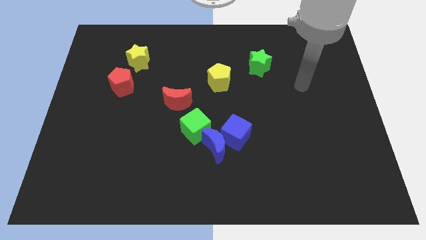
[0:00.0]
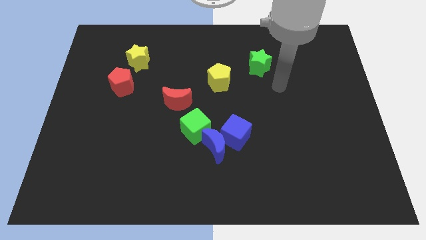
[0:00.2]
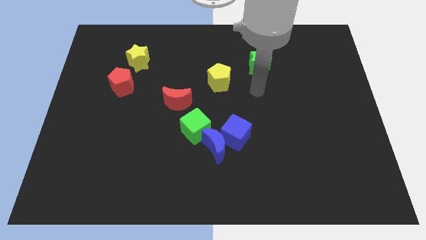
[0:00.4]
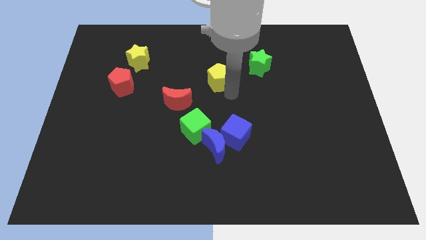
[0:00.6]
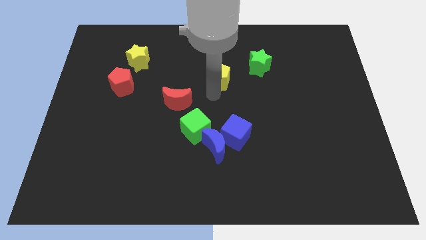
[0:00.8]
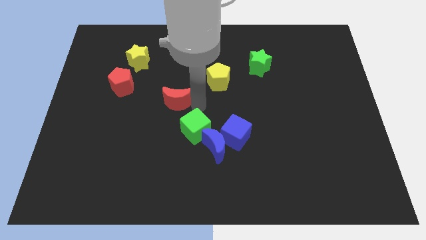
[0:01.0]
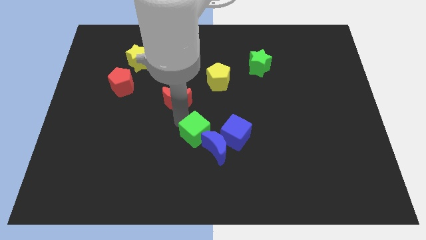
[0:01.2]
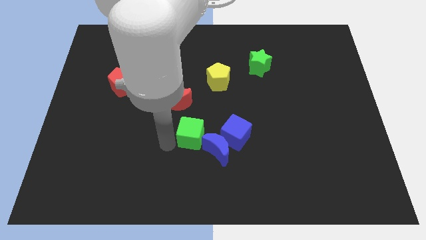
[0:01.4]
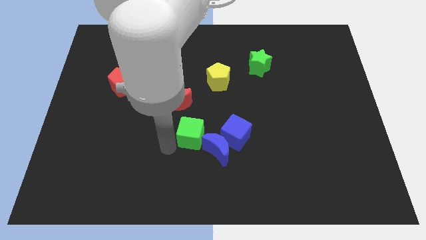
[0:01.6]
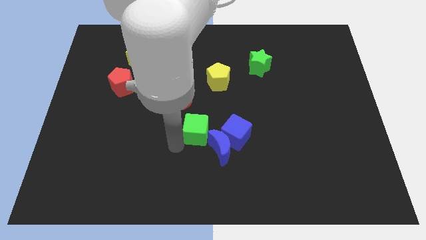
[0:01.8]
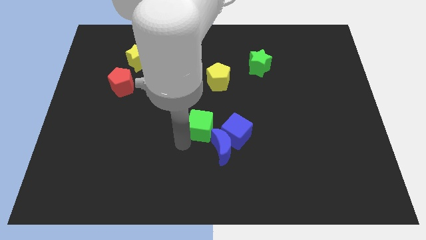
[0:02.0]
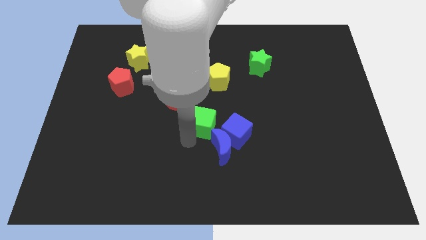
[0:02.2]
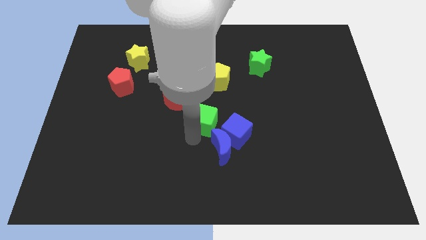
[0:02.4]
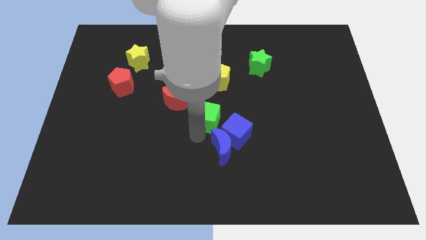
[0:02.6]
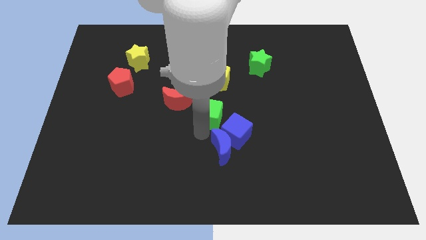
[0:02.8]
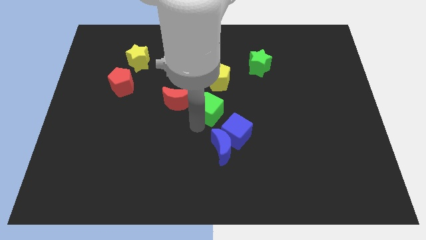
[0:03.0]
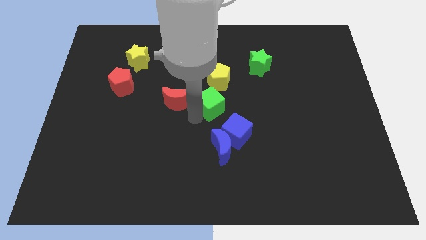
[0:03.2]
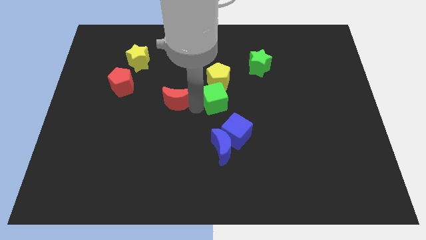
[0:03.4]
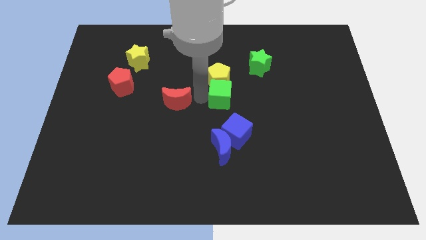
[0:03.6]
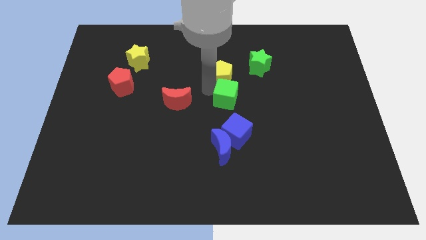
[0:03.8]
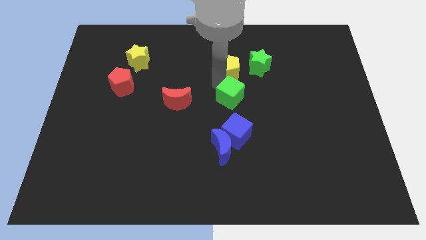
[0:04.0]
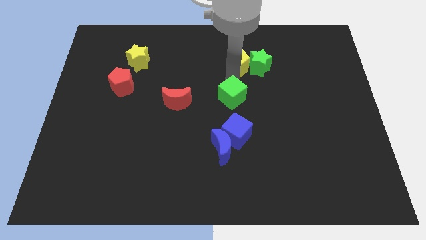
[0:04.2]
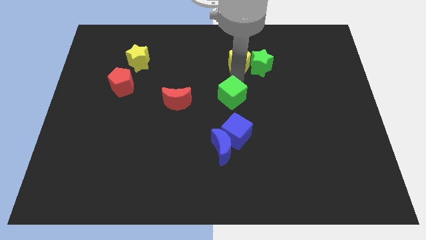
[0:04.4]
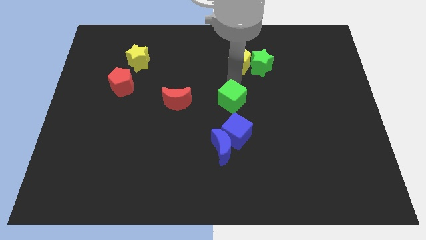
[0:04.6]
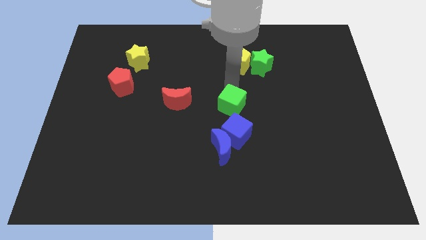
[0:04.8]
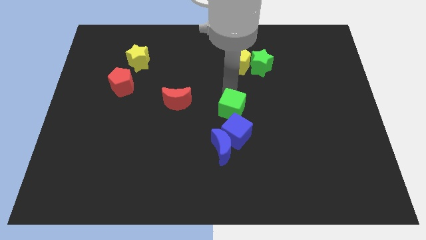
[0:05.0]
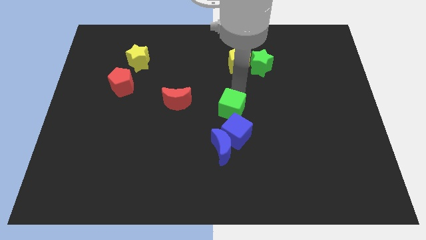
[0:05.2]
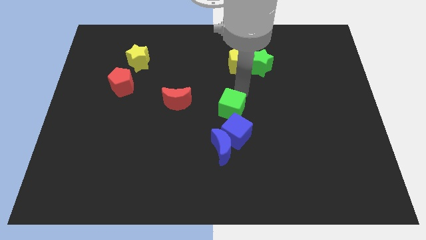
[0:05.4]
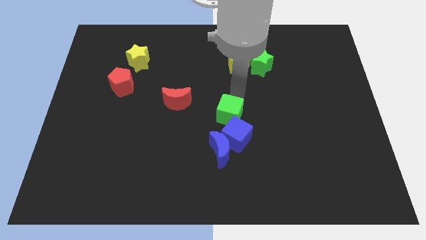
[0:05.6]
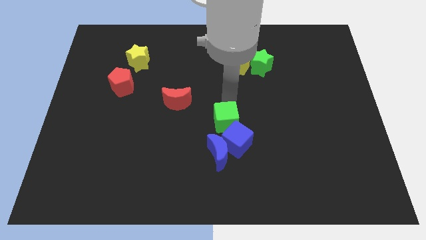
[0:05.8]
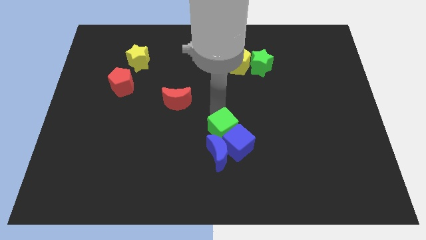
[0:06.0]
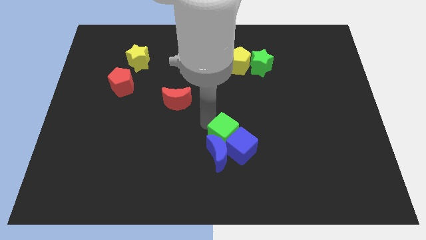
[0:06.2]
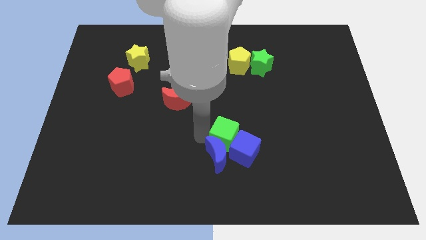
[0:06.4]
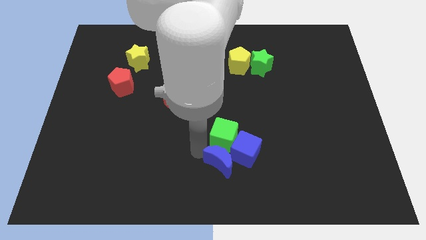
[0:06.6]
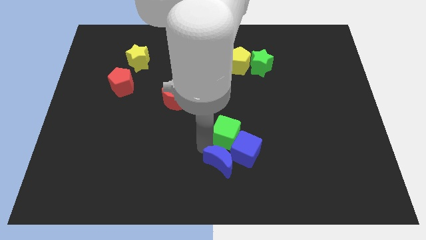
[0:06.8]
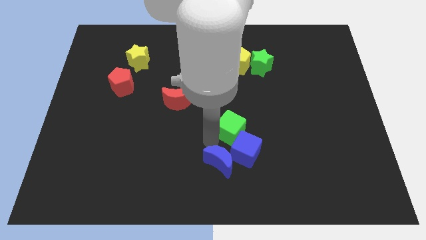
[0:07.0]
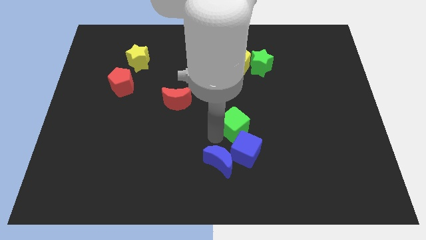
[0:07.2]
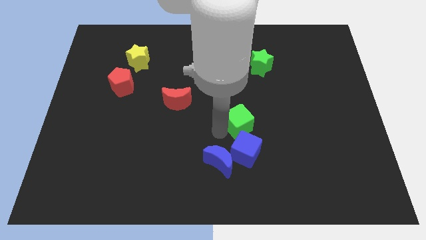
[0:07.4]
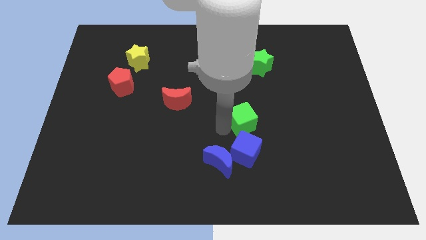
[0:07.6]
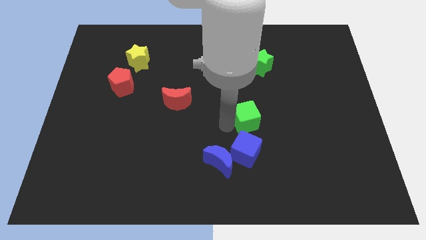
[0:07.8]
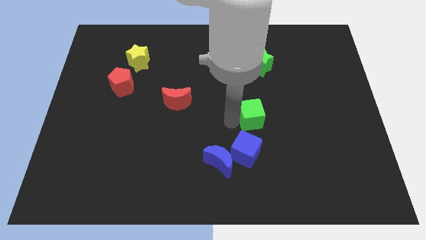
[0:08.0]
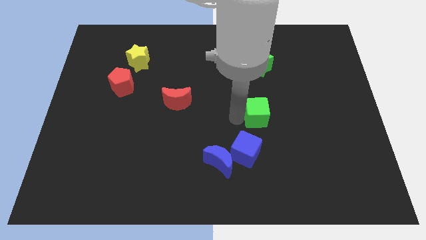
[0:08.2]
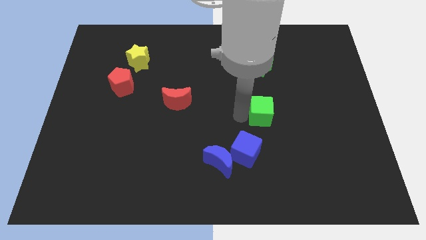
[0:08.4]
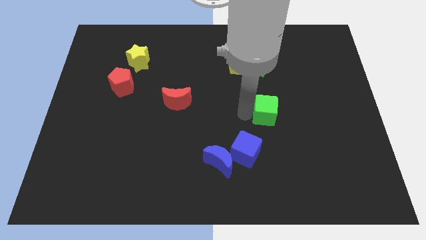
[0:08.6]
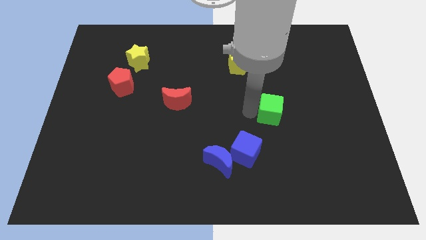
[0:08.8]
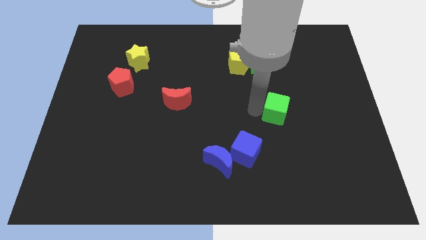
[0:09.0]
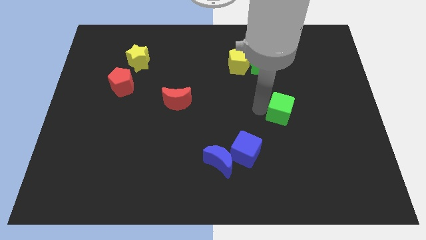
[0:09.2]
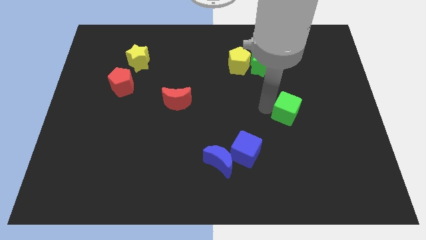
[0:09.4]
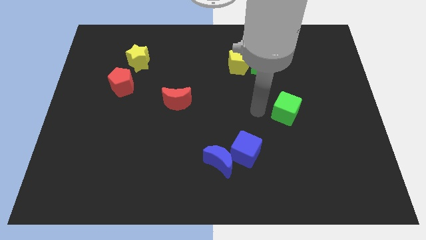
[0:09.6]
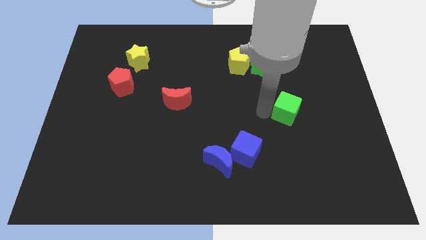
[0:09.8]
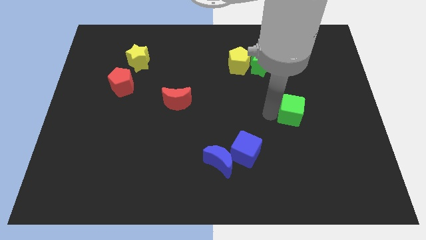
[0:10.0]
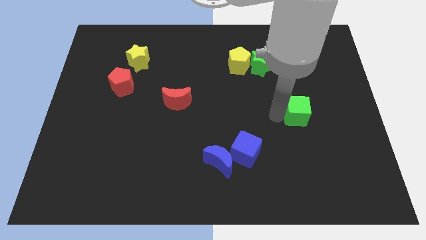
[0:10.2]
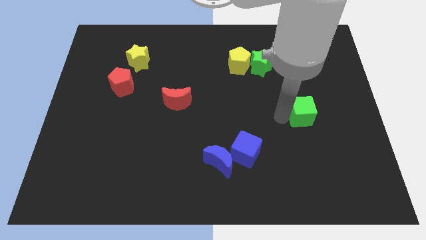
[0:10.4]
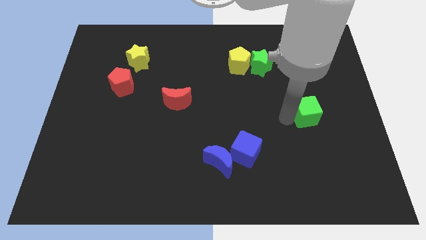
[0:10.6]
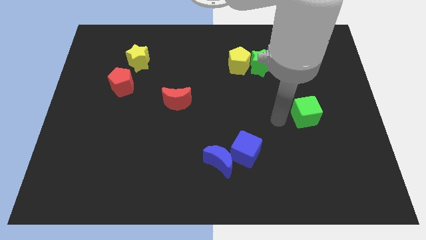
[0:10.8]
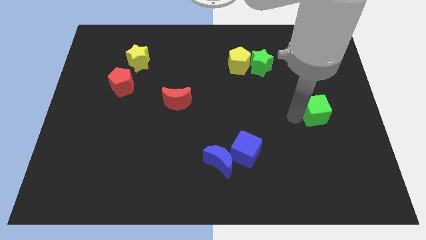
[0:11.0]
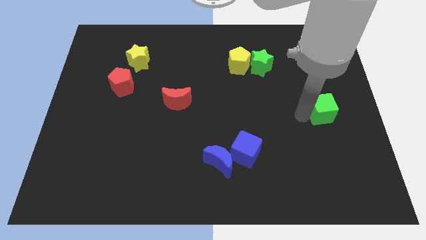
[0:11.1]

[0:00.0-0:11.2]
slide the green cube to the right side of the board

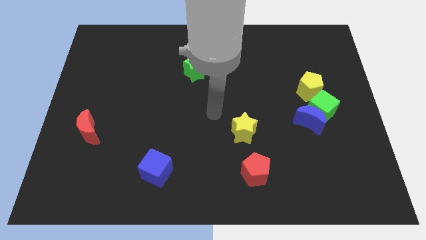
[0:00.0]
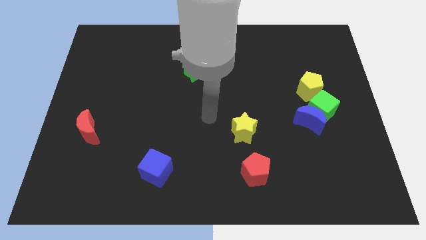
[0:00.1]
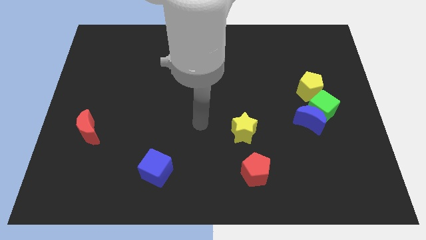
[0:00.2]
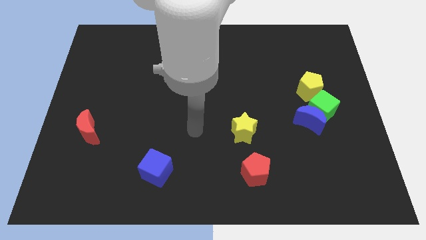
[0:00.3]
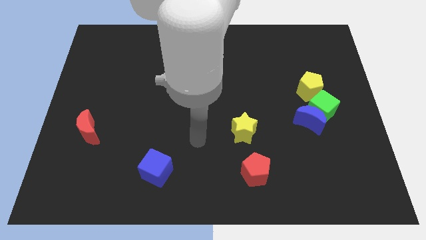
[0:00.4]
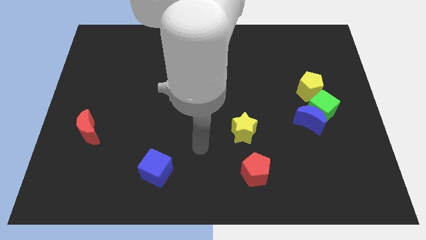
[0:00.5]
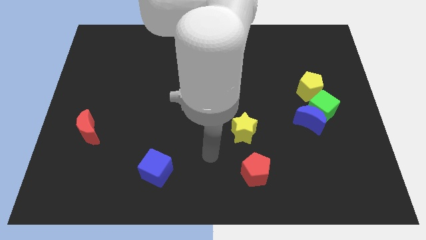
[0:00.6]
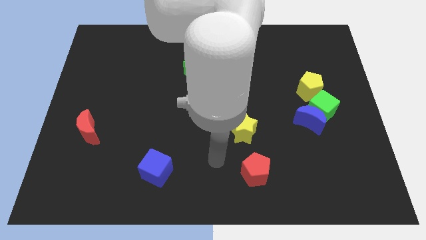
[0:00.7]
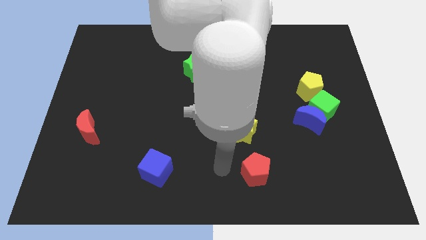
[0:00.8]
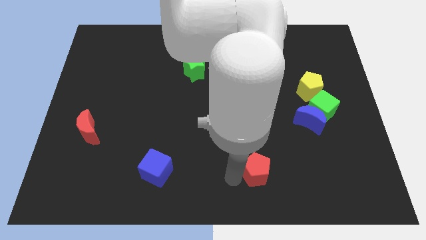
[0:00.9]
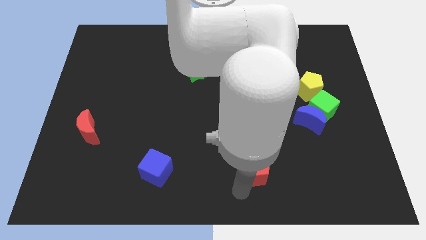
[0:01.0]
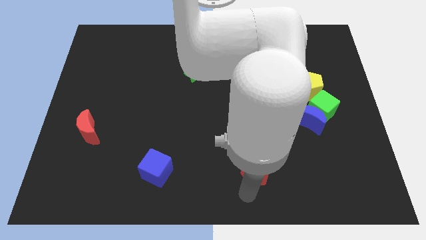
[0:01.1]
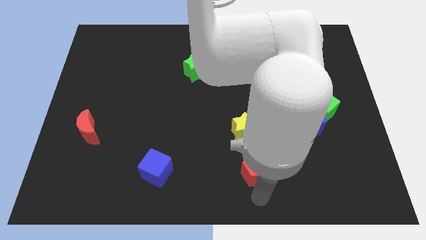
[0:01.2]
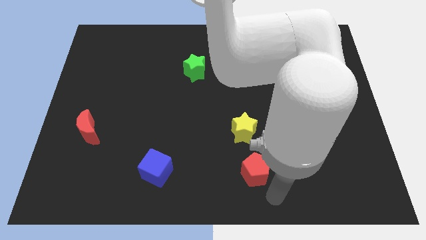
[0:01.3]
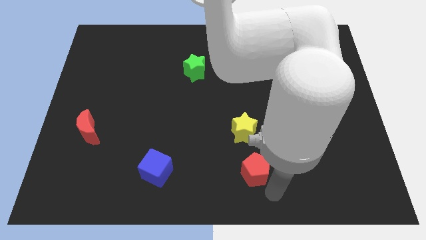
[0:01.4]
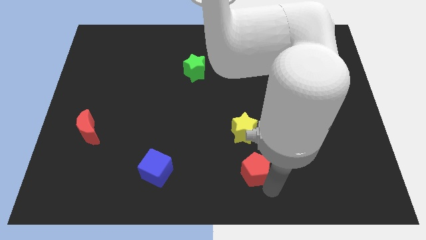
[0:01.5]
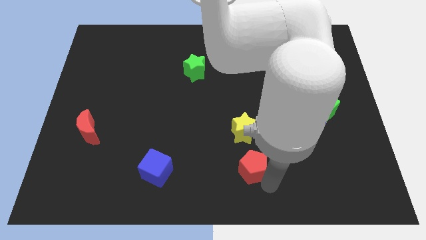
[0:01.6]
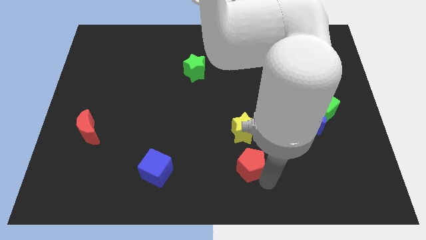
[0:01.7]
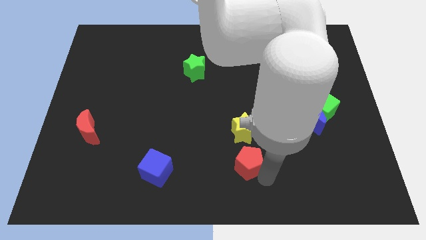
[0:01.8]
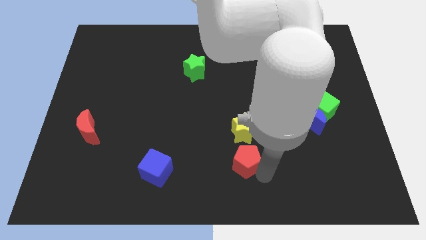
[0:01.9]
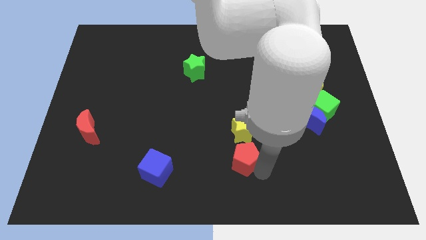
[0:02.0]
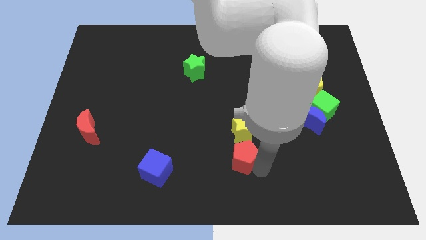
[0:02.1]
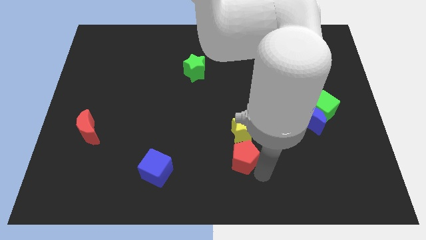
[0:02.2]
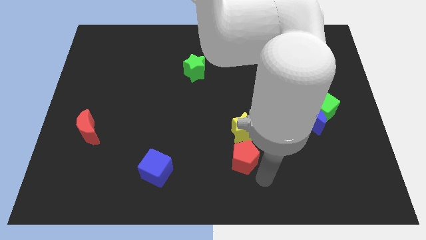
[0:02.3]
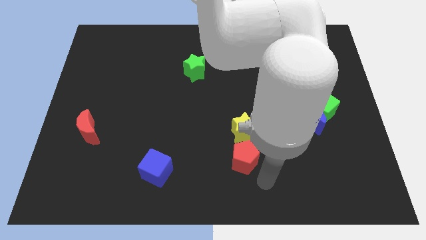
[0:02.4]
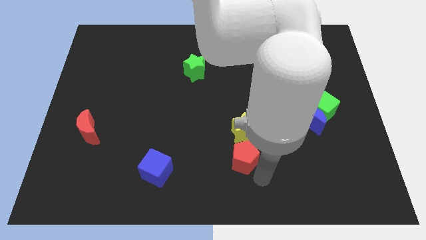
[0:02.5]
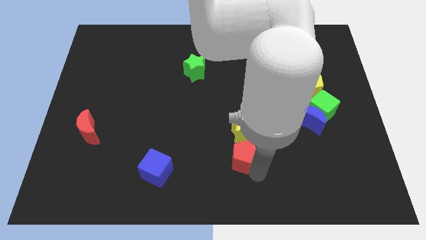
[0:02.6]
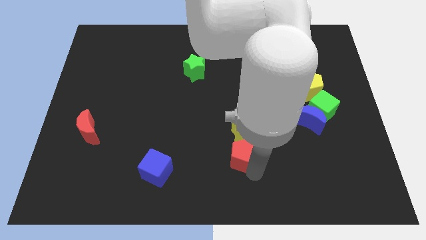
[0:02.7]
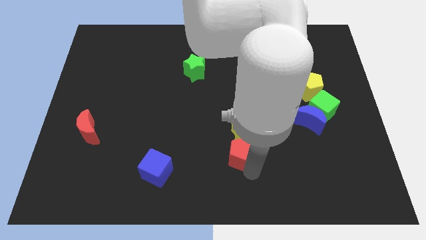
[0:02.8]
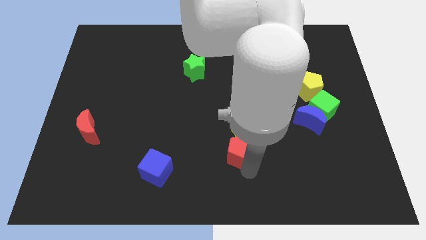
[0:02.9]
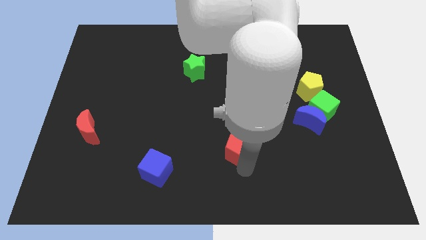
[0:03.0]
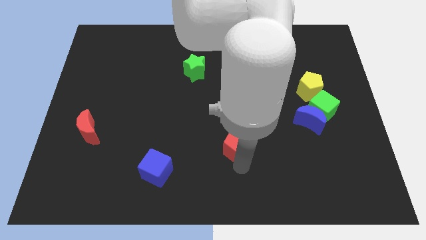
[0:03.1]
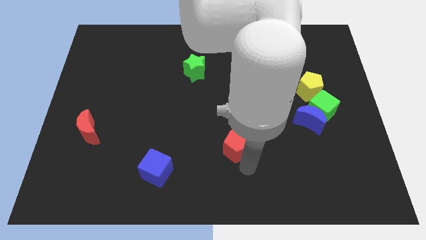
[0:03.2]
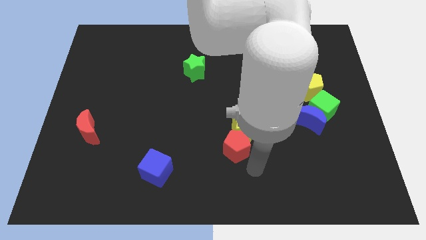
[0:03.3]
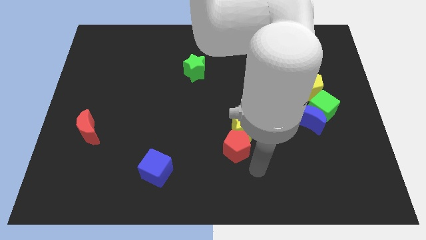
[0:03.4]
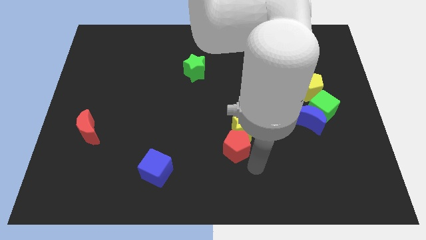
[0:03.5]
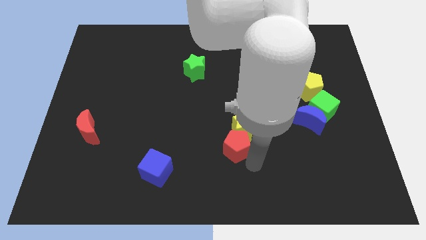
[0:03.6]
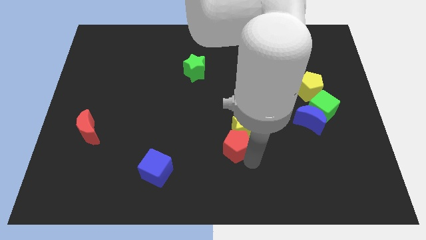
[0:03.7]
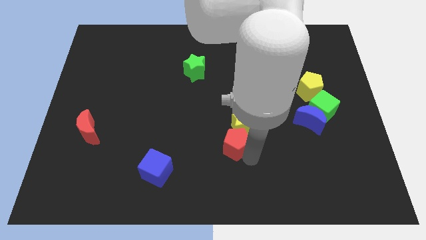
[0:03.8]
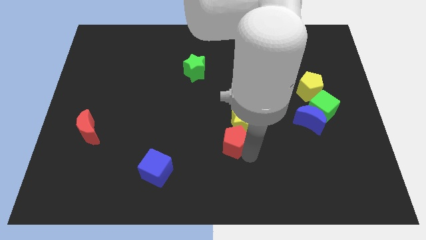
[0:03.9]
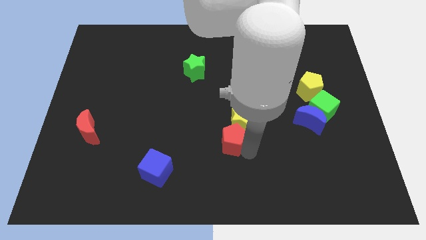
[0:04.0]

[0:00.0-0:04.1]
push the red pentagon to the center
